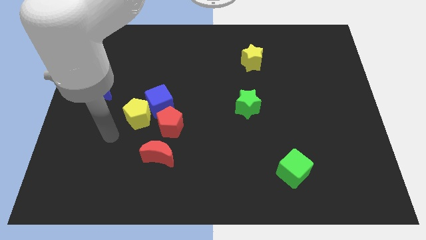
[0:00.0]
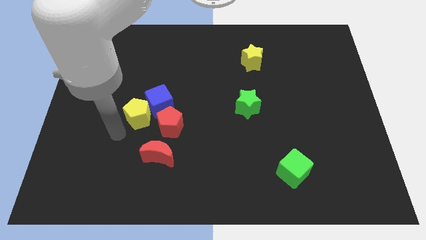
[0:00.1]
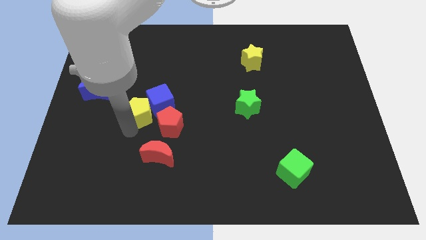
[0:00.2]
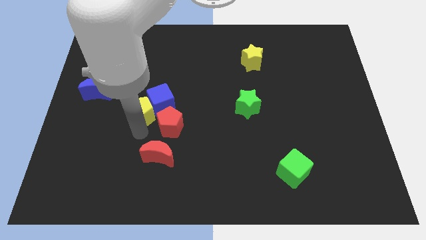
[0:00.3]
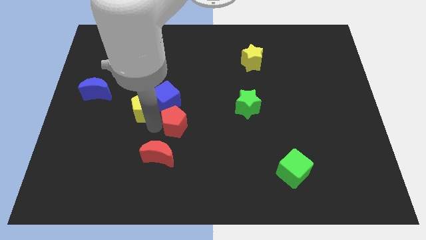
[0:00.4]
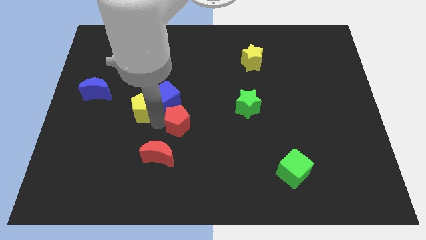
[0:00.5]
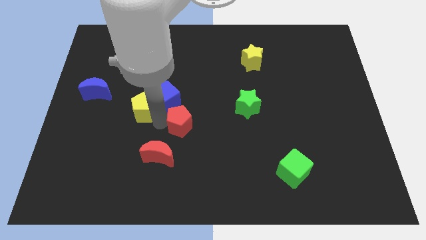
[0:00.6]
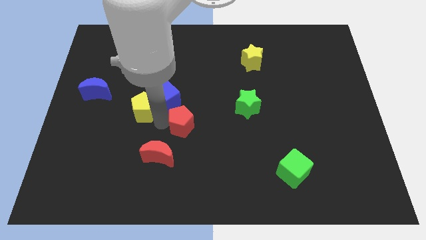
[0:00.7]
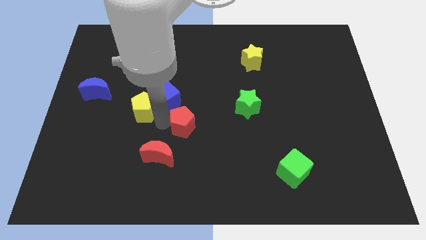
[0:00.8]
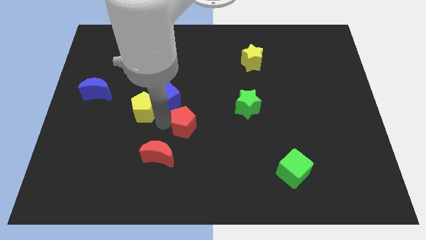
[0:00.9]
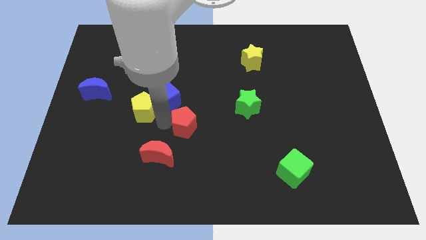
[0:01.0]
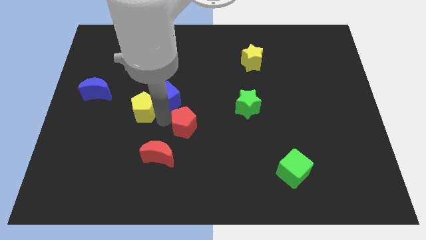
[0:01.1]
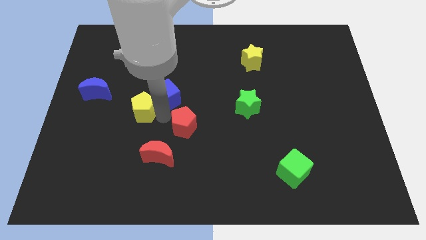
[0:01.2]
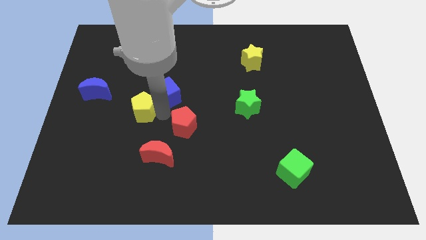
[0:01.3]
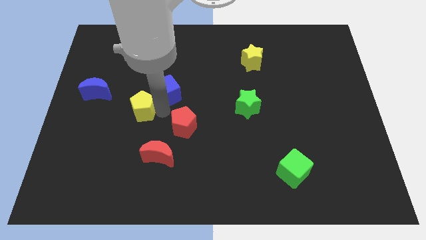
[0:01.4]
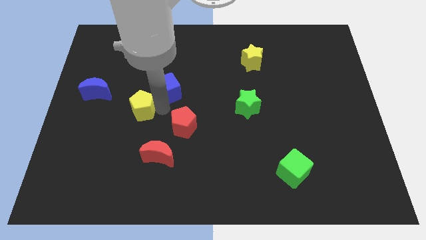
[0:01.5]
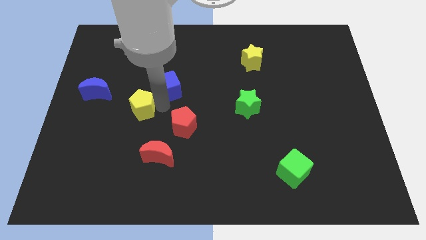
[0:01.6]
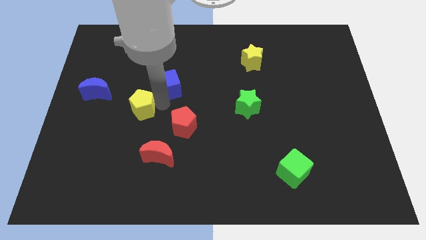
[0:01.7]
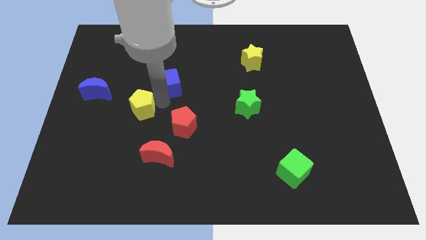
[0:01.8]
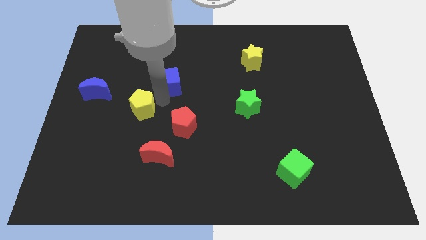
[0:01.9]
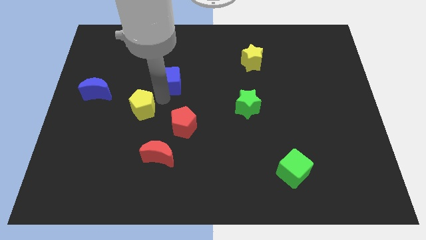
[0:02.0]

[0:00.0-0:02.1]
separate the blue cube from the yellow pentagon and red pentagon

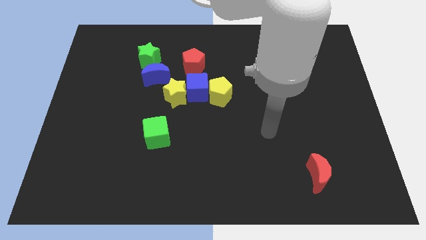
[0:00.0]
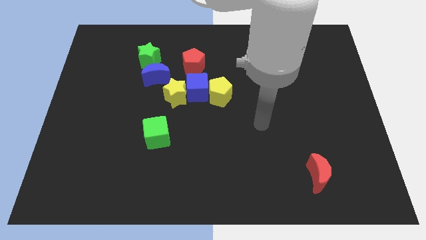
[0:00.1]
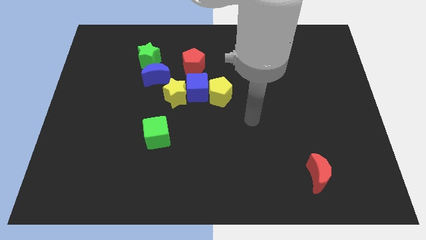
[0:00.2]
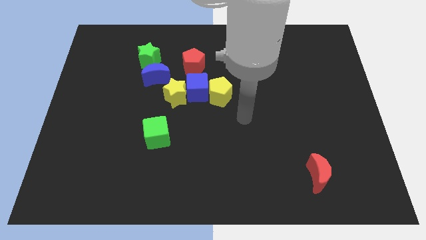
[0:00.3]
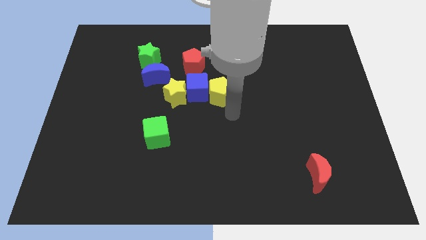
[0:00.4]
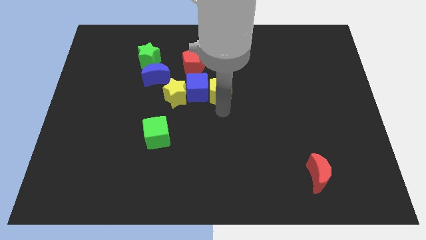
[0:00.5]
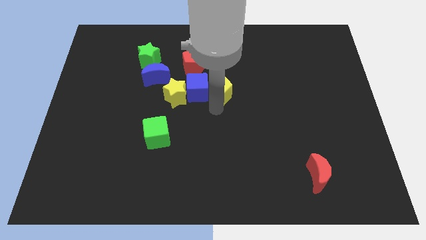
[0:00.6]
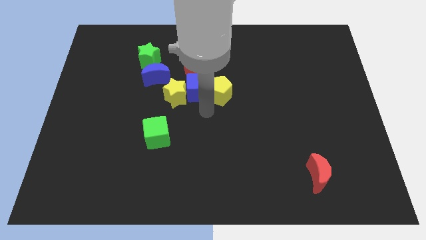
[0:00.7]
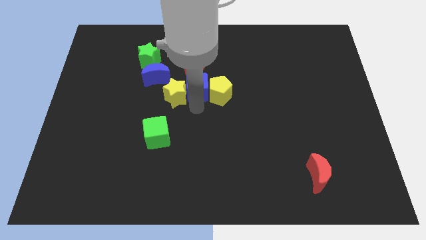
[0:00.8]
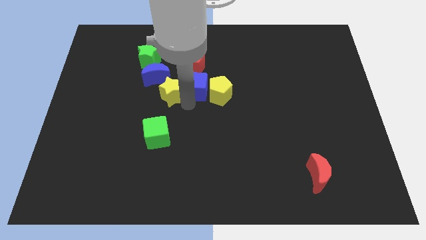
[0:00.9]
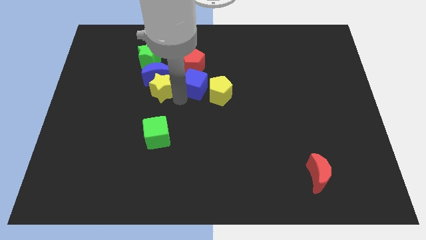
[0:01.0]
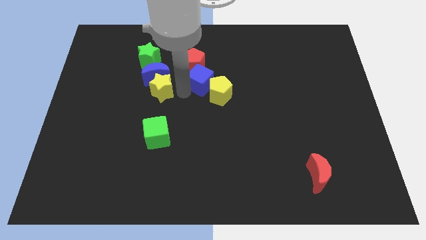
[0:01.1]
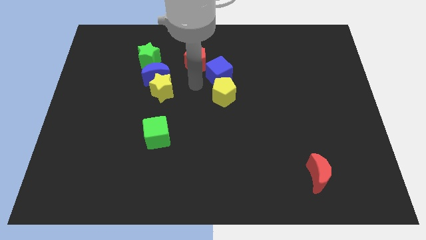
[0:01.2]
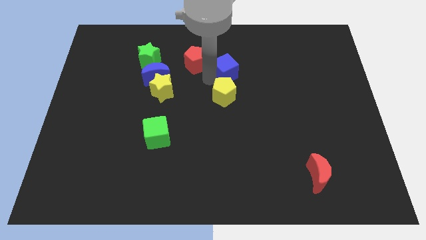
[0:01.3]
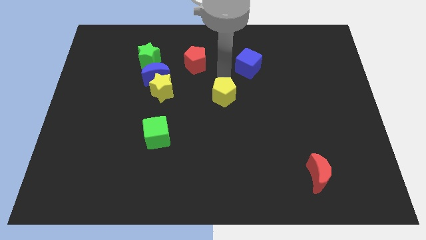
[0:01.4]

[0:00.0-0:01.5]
pull the yellow pentagon apart from the blue cube

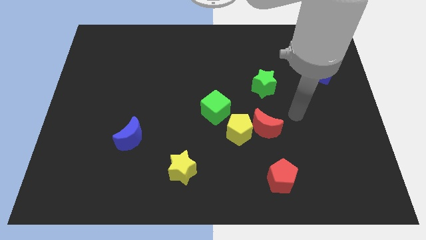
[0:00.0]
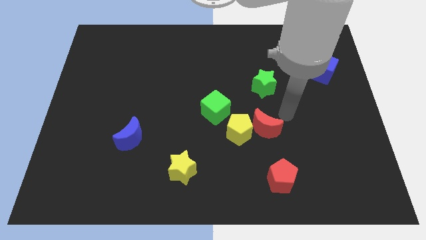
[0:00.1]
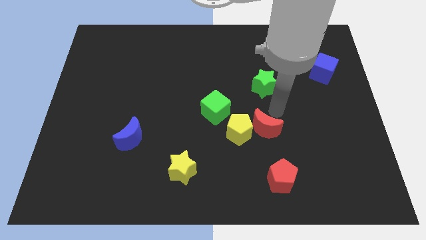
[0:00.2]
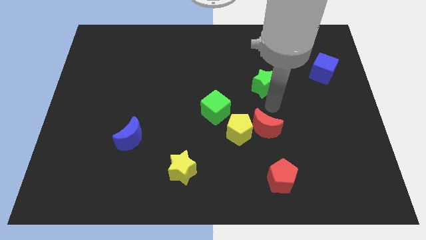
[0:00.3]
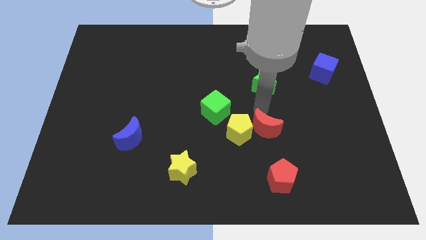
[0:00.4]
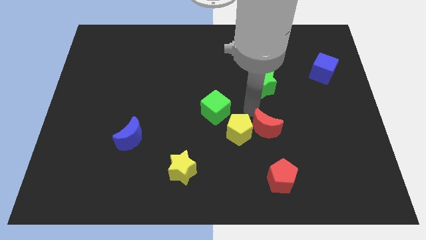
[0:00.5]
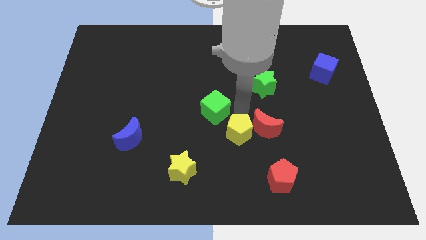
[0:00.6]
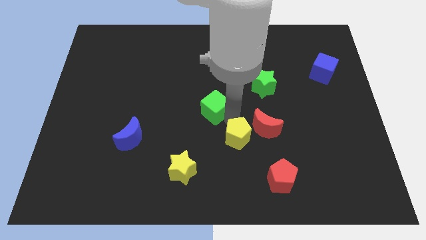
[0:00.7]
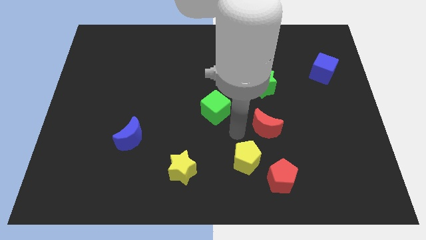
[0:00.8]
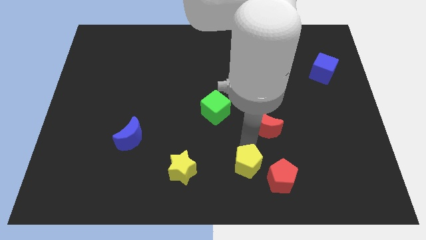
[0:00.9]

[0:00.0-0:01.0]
move the red moon away from the yellow pentagon

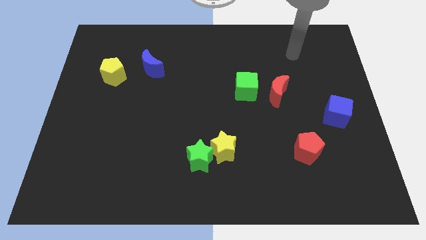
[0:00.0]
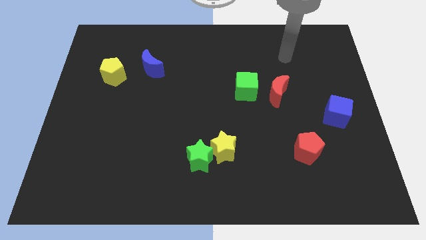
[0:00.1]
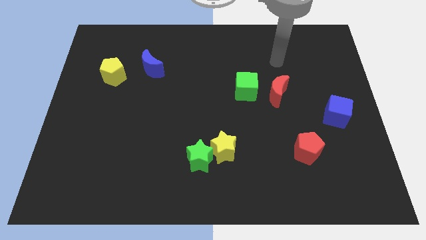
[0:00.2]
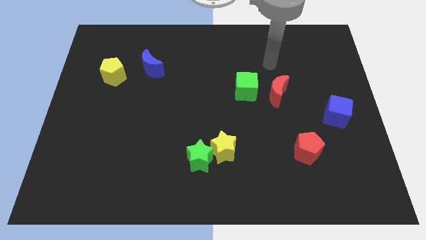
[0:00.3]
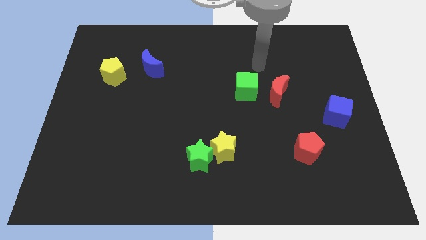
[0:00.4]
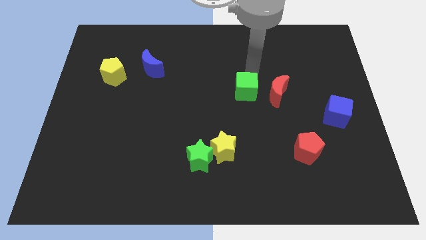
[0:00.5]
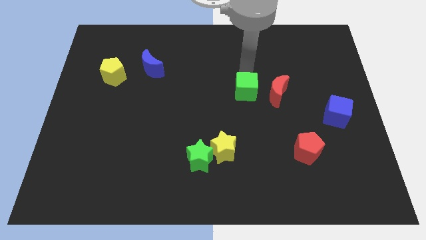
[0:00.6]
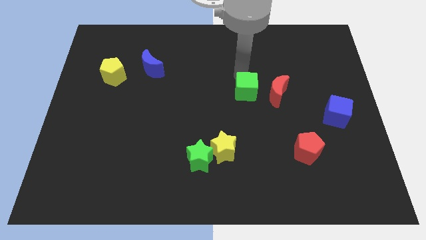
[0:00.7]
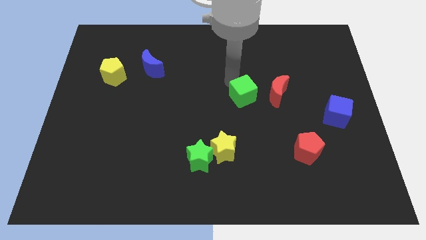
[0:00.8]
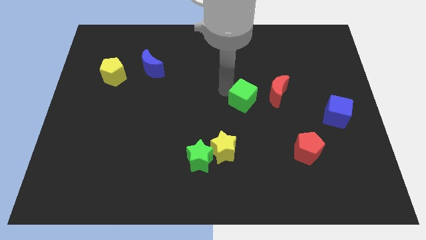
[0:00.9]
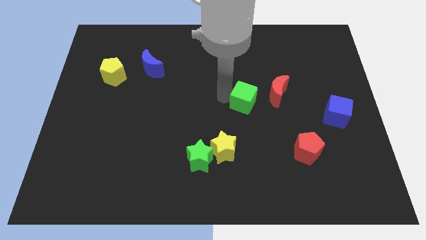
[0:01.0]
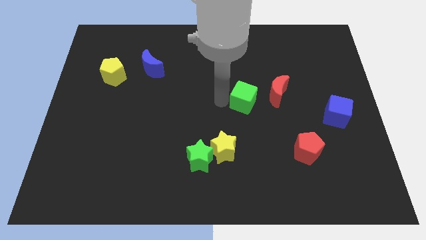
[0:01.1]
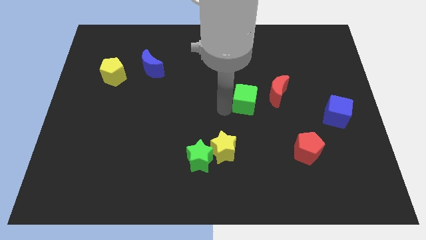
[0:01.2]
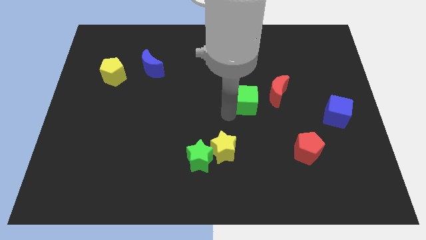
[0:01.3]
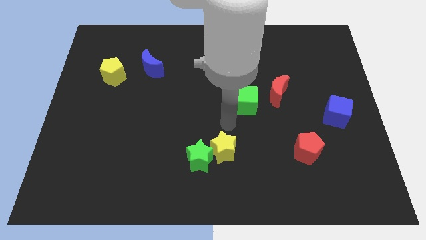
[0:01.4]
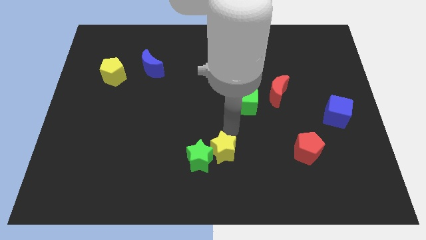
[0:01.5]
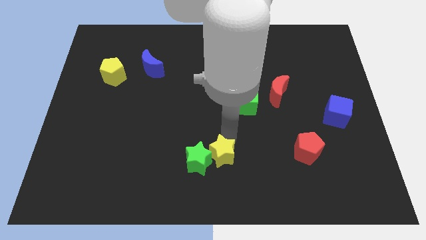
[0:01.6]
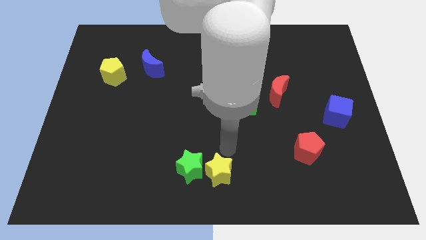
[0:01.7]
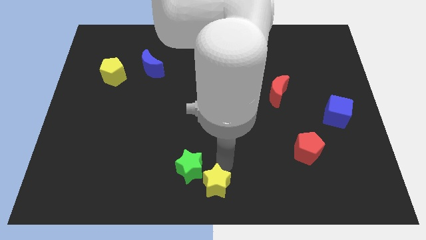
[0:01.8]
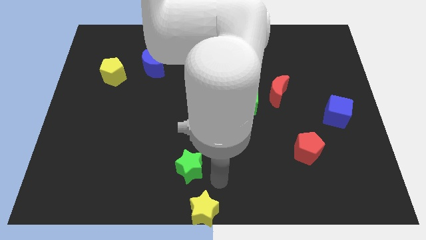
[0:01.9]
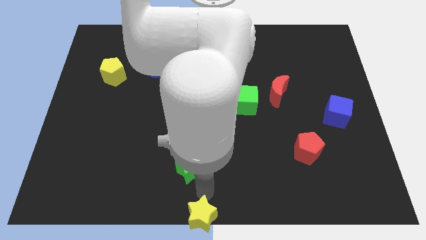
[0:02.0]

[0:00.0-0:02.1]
separate the green star from the yellow star

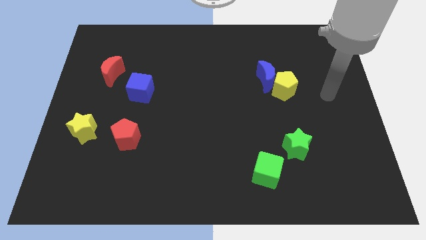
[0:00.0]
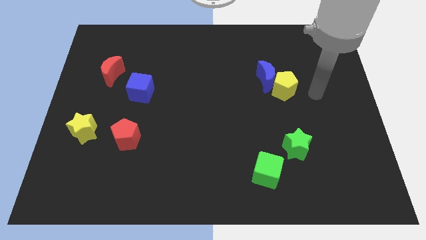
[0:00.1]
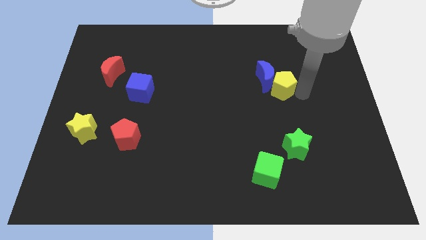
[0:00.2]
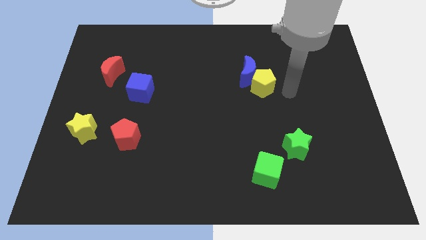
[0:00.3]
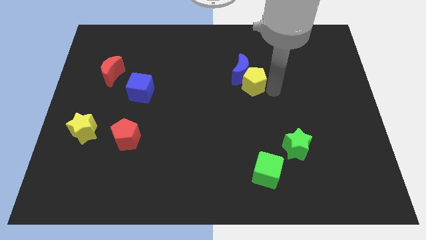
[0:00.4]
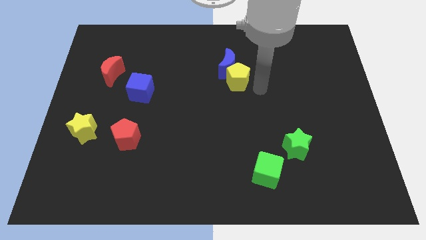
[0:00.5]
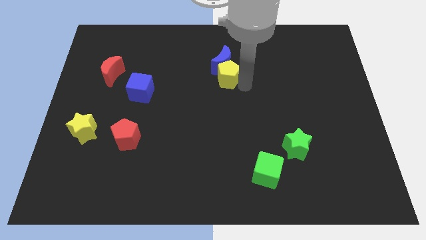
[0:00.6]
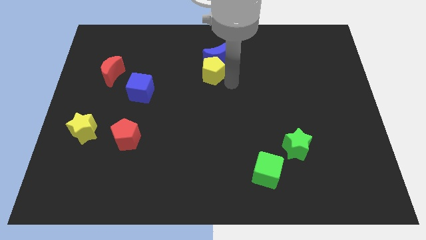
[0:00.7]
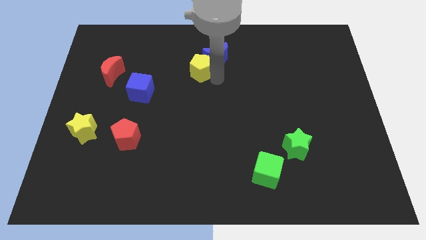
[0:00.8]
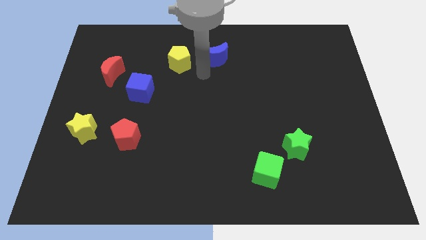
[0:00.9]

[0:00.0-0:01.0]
move the blue moon away from the yellow pentagon

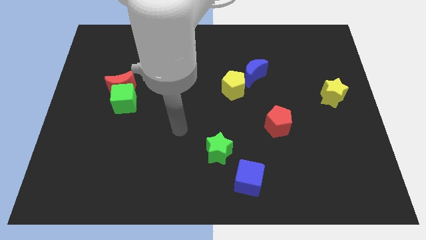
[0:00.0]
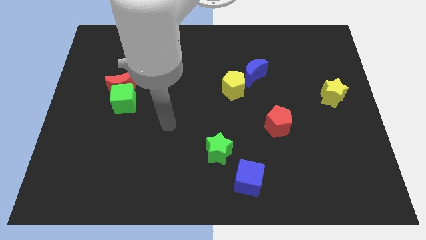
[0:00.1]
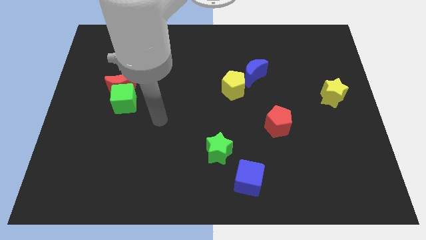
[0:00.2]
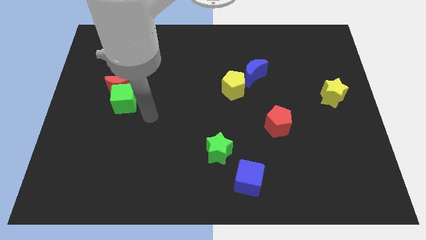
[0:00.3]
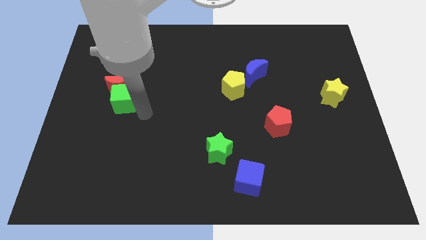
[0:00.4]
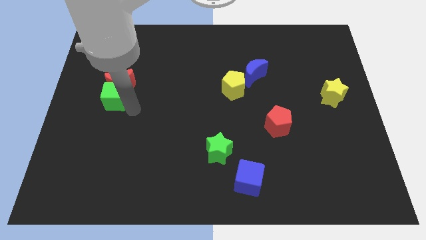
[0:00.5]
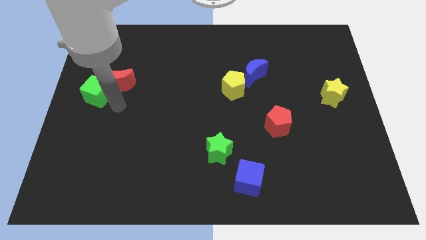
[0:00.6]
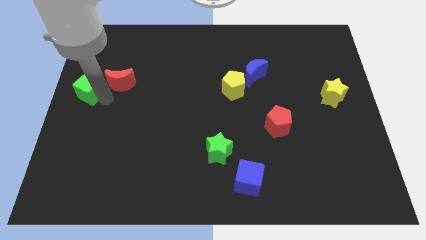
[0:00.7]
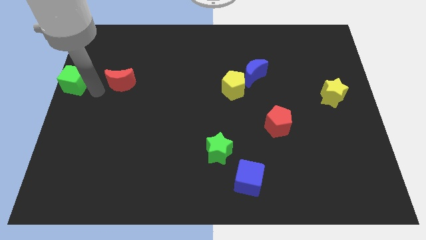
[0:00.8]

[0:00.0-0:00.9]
separate the red moon from the green cube

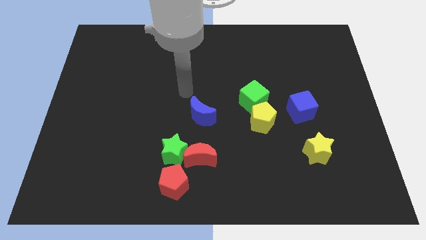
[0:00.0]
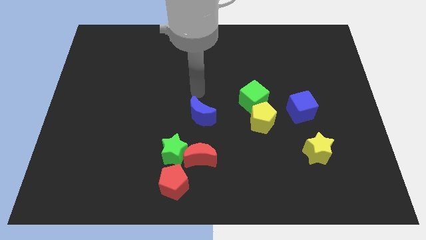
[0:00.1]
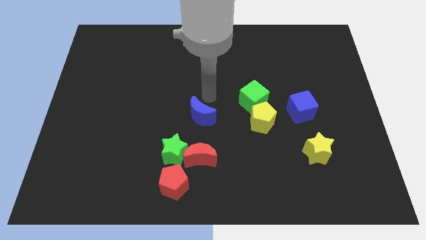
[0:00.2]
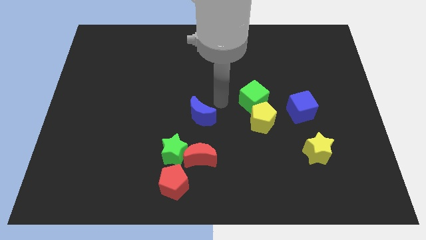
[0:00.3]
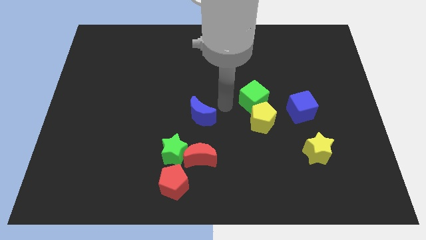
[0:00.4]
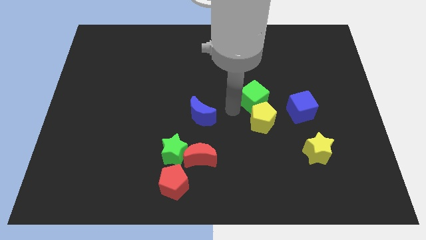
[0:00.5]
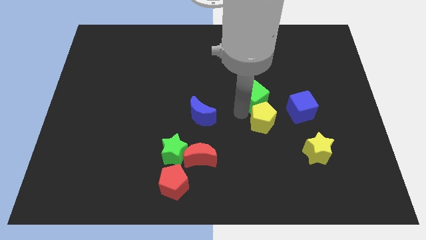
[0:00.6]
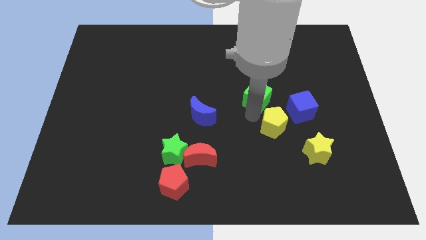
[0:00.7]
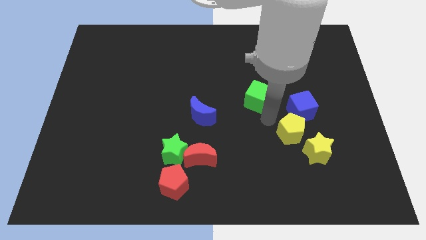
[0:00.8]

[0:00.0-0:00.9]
separate the green cube from the yellow pentagon
